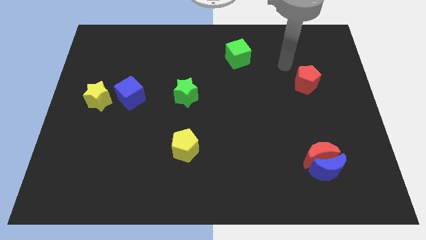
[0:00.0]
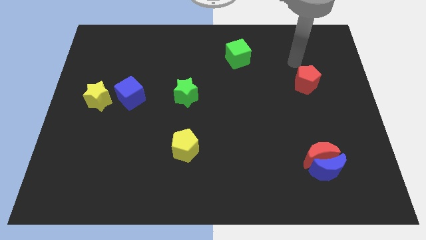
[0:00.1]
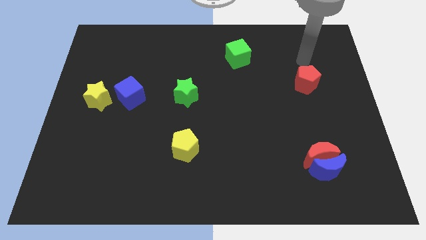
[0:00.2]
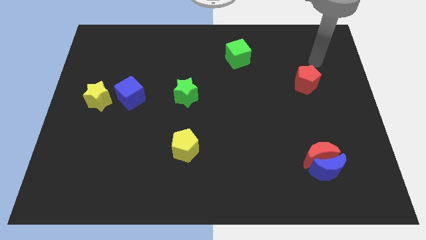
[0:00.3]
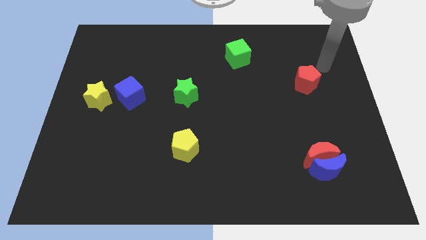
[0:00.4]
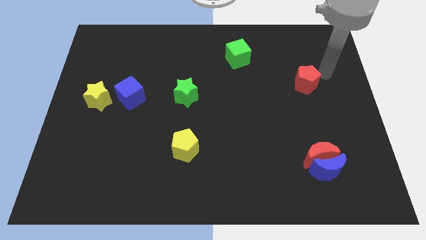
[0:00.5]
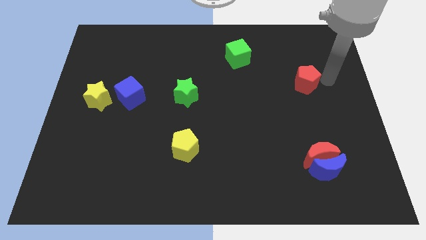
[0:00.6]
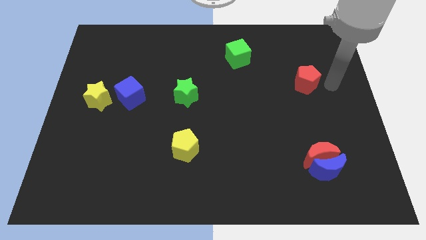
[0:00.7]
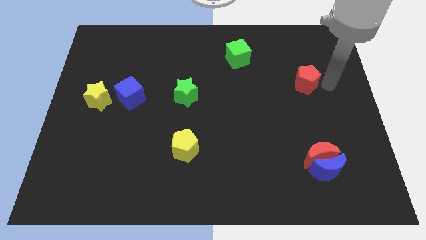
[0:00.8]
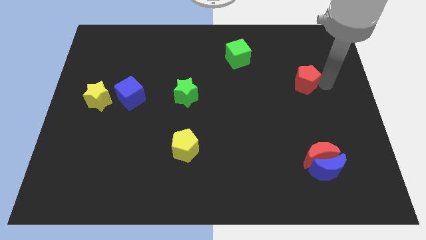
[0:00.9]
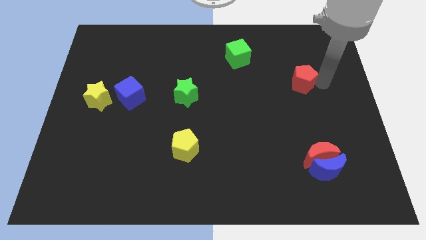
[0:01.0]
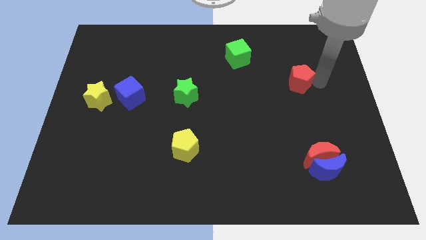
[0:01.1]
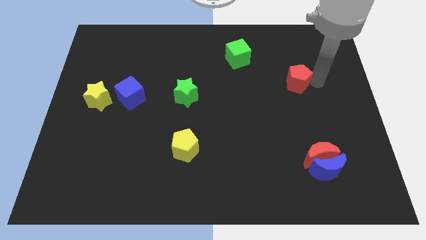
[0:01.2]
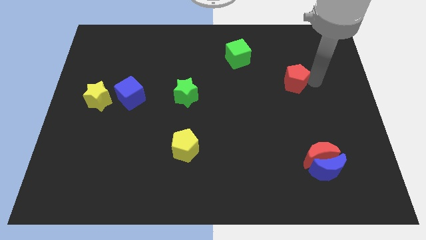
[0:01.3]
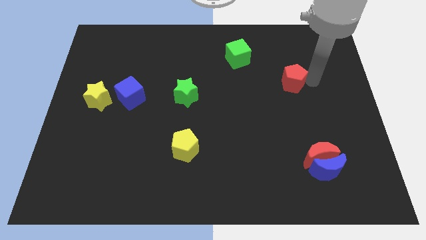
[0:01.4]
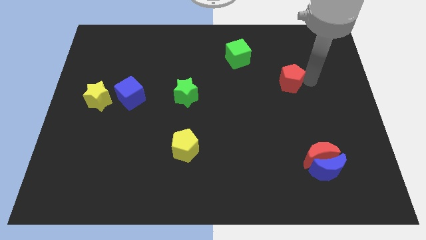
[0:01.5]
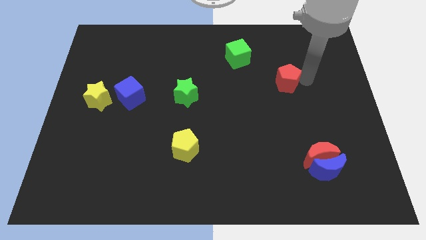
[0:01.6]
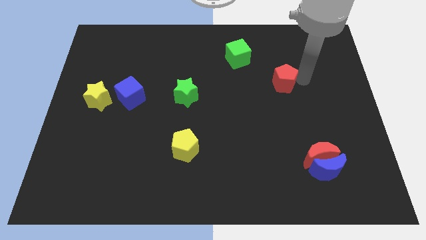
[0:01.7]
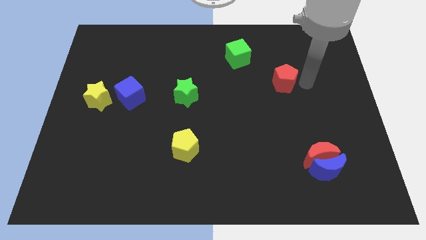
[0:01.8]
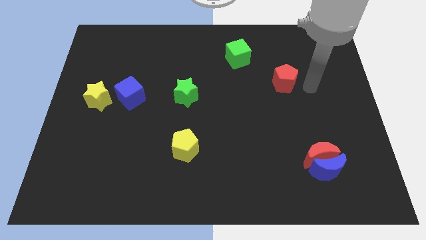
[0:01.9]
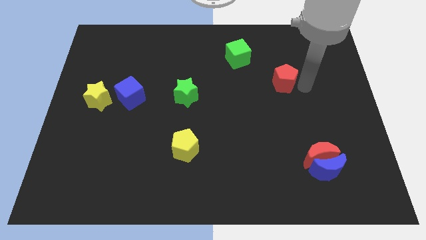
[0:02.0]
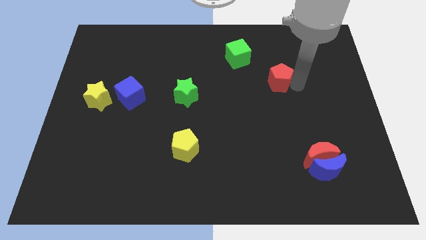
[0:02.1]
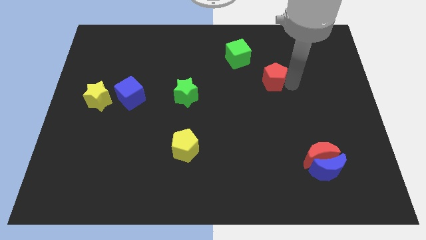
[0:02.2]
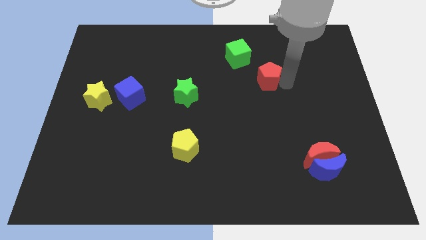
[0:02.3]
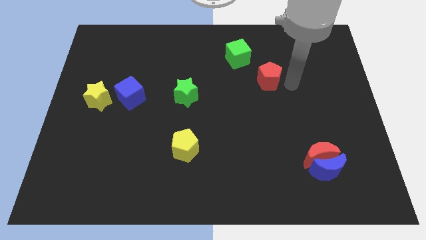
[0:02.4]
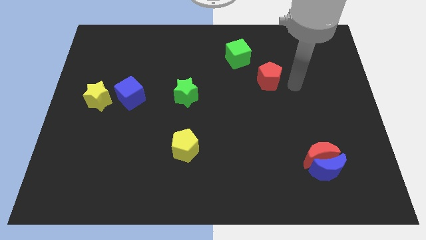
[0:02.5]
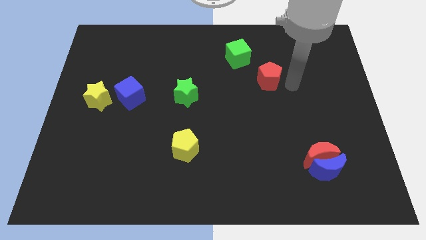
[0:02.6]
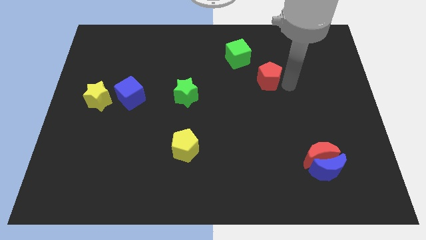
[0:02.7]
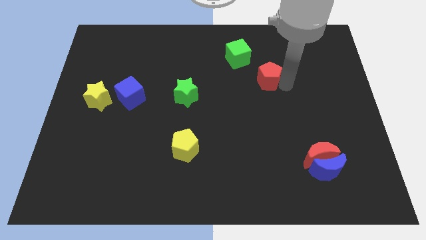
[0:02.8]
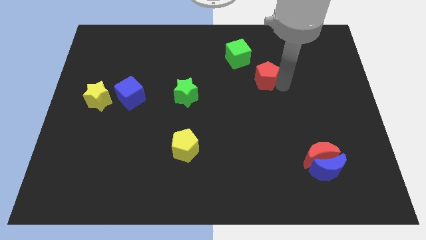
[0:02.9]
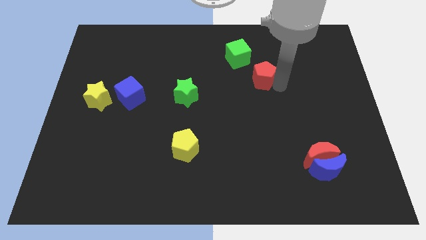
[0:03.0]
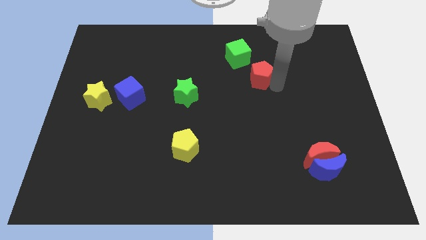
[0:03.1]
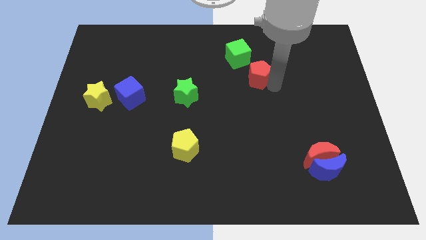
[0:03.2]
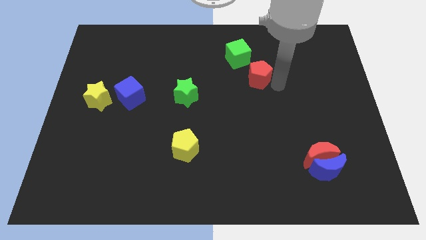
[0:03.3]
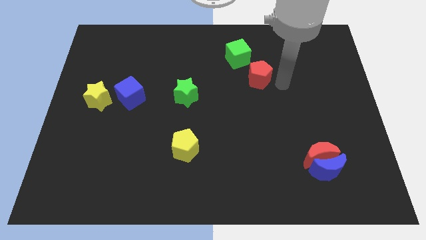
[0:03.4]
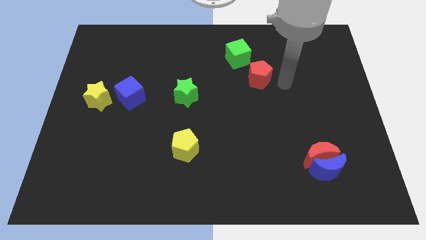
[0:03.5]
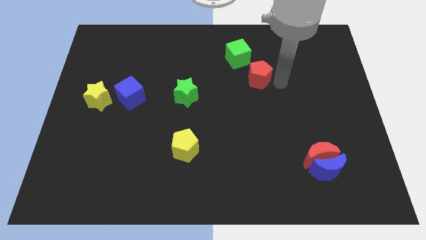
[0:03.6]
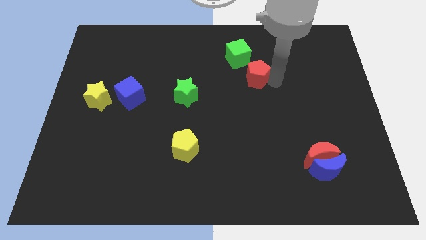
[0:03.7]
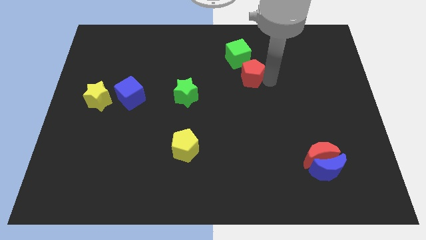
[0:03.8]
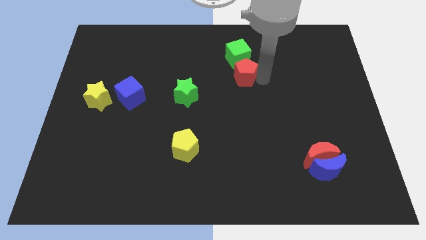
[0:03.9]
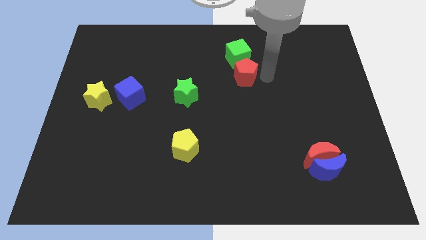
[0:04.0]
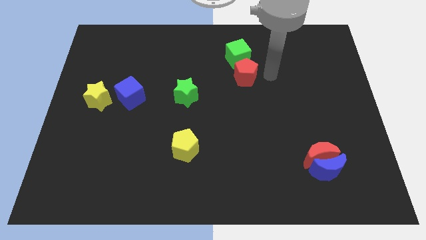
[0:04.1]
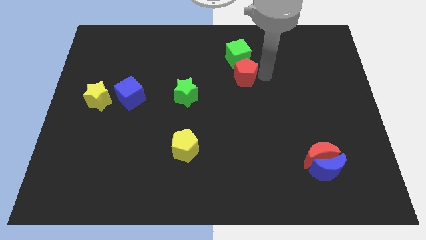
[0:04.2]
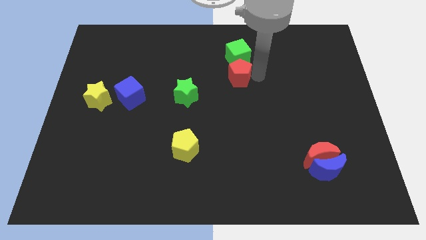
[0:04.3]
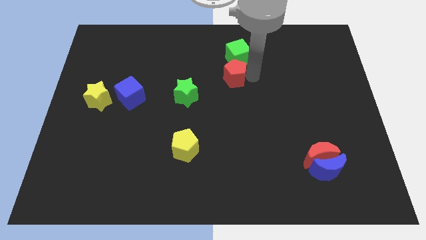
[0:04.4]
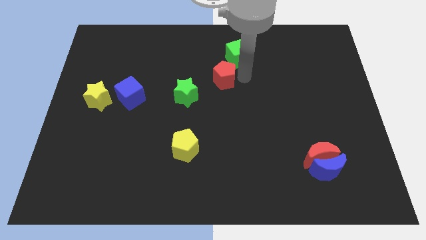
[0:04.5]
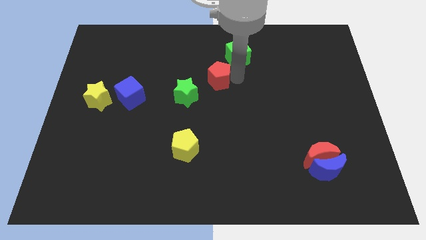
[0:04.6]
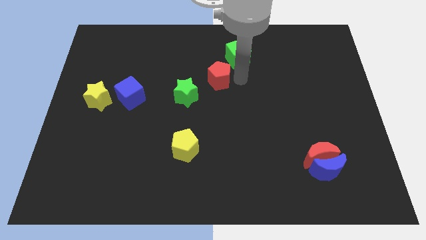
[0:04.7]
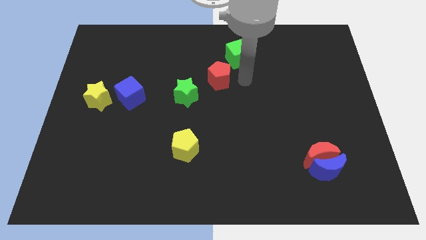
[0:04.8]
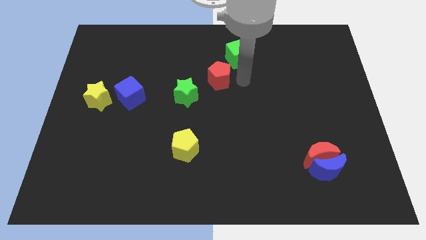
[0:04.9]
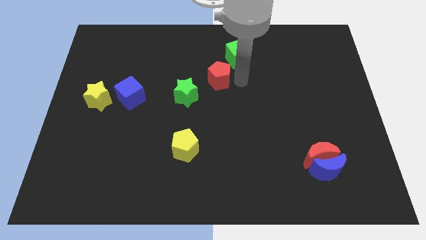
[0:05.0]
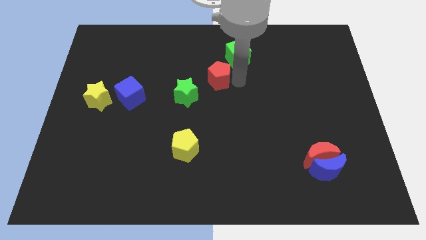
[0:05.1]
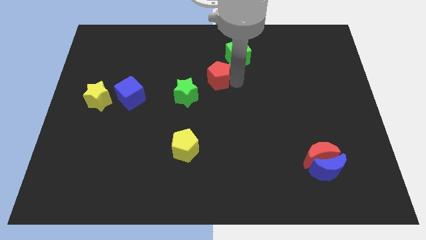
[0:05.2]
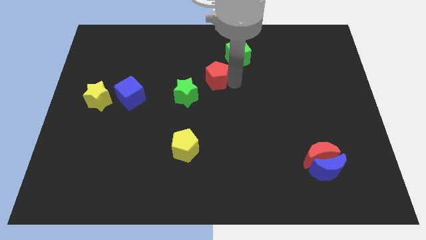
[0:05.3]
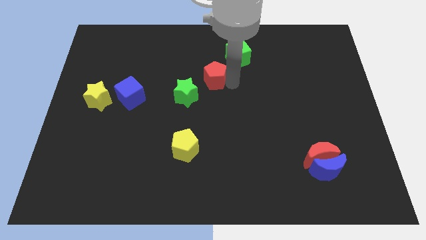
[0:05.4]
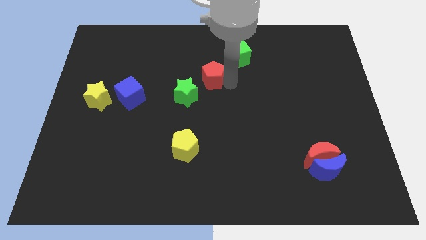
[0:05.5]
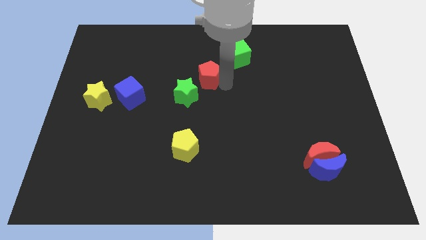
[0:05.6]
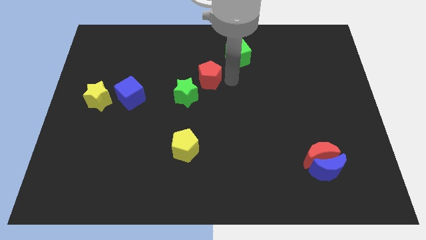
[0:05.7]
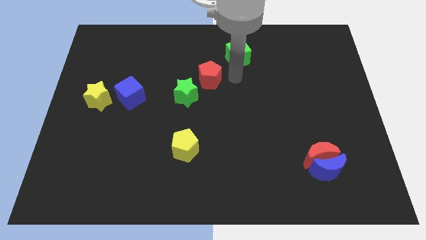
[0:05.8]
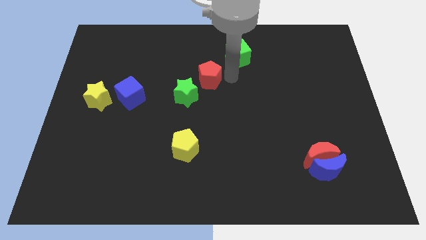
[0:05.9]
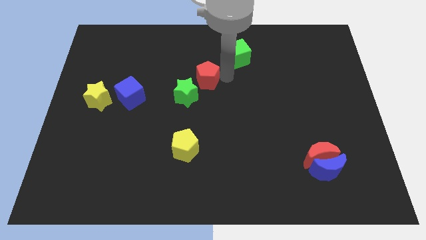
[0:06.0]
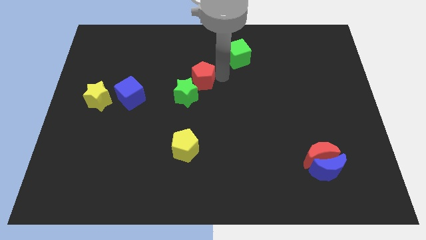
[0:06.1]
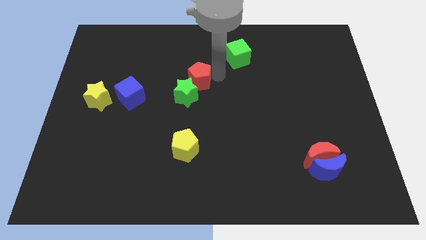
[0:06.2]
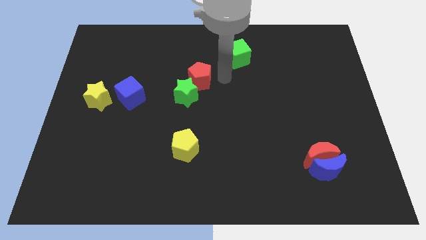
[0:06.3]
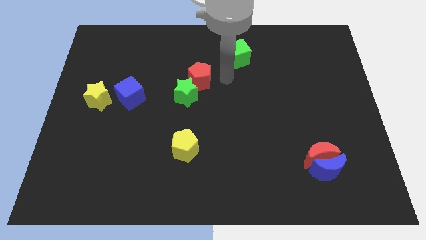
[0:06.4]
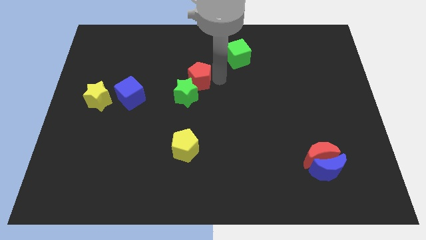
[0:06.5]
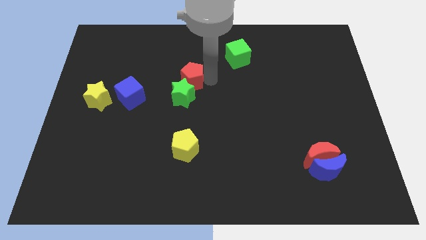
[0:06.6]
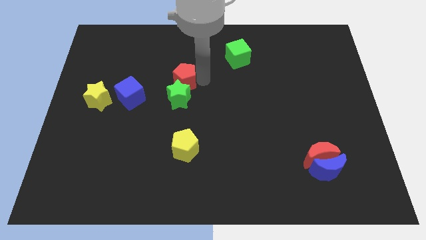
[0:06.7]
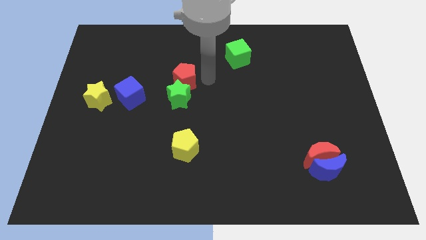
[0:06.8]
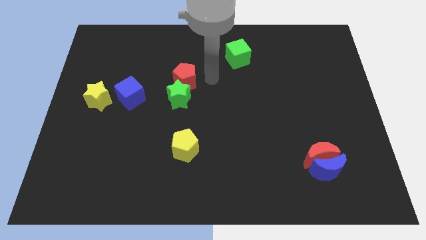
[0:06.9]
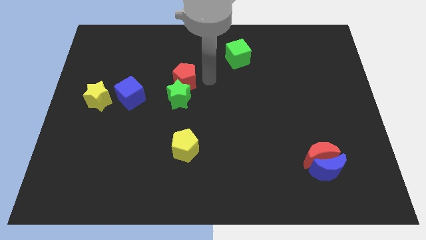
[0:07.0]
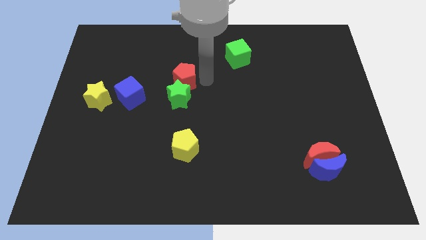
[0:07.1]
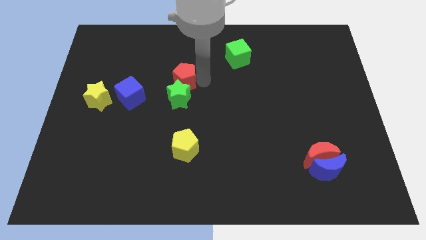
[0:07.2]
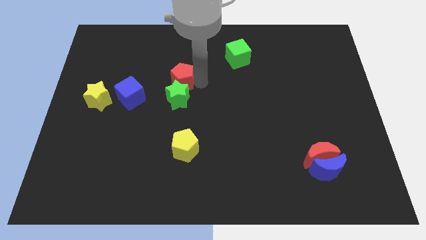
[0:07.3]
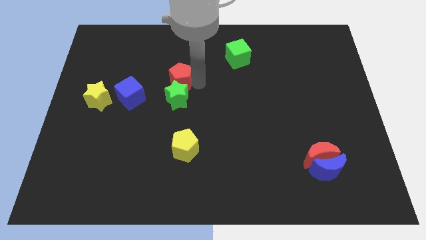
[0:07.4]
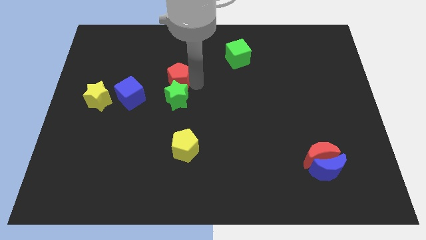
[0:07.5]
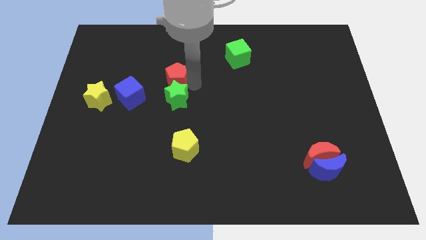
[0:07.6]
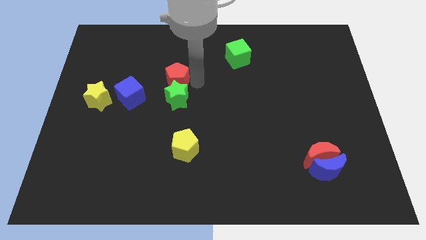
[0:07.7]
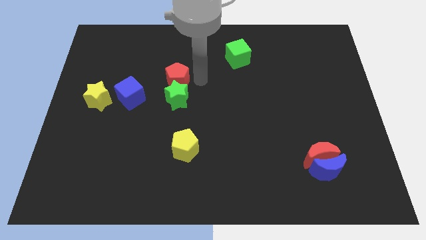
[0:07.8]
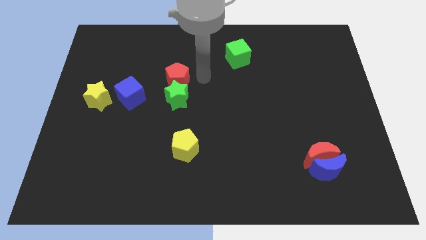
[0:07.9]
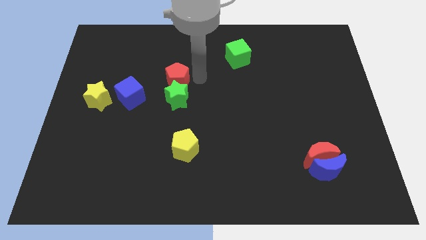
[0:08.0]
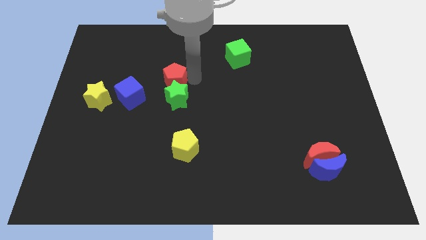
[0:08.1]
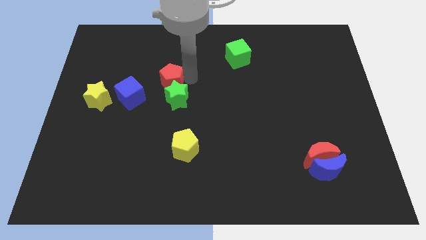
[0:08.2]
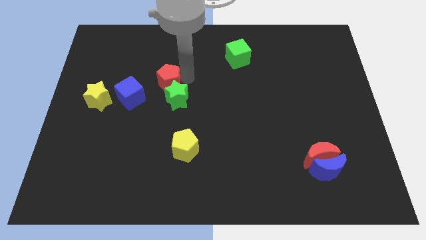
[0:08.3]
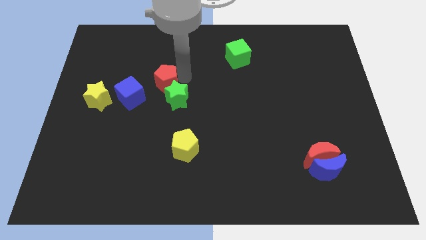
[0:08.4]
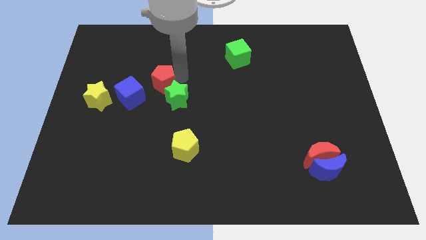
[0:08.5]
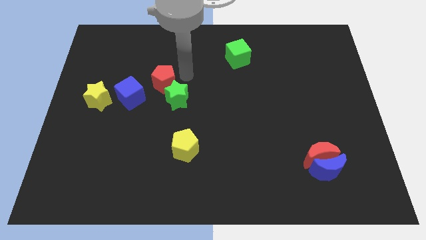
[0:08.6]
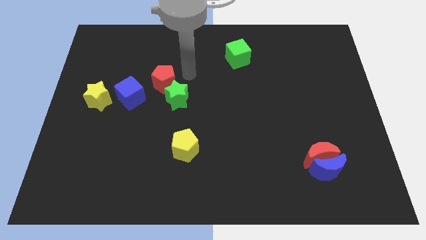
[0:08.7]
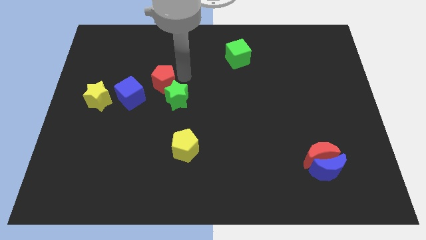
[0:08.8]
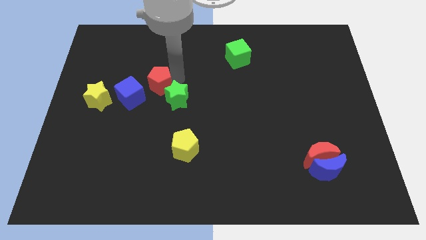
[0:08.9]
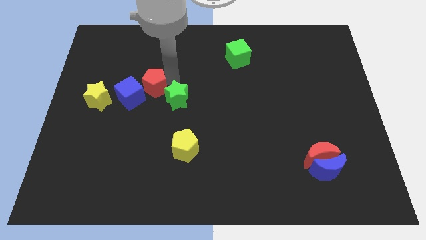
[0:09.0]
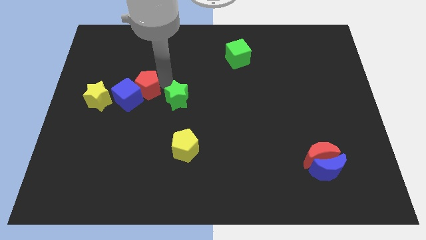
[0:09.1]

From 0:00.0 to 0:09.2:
put the red pentagon close to the blue cube
